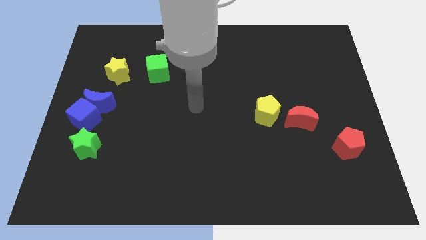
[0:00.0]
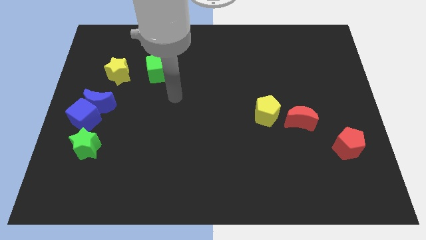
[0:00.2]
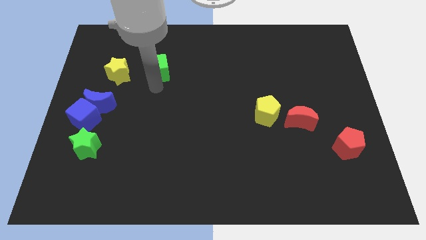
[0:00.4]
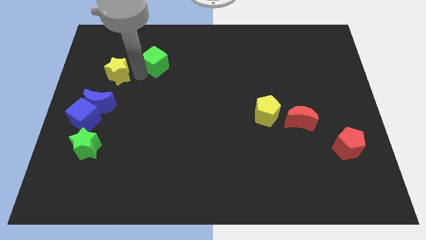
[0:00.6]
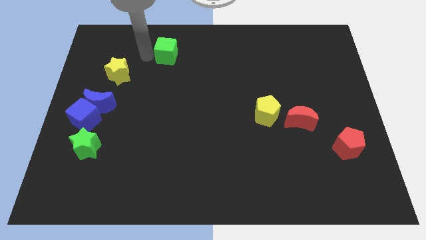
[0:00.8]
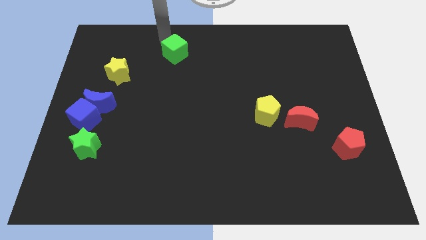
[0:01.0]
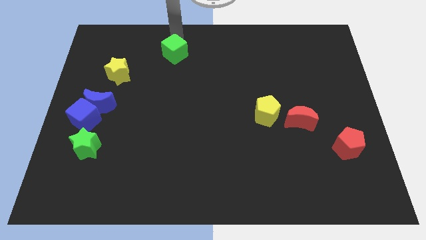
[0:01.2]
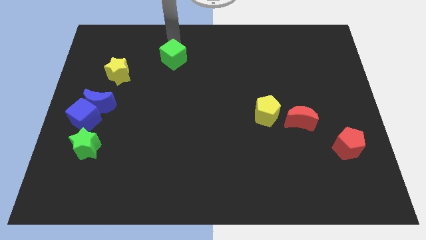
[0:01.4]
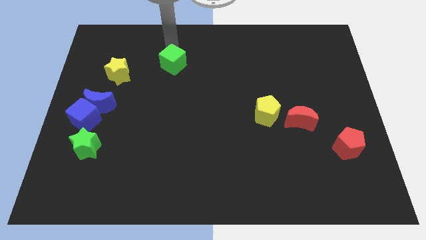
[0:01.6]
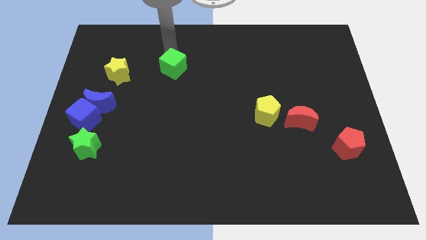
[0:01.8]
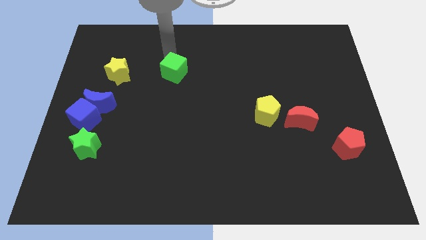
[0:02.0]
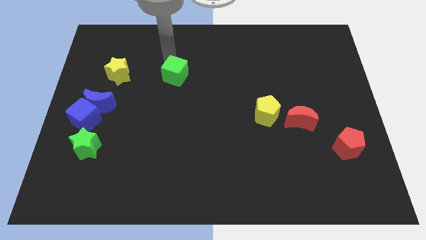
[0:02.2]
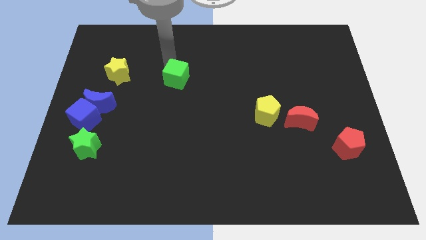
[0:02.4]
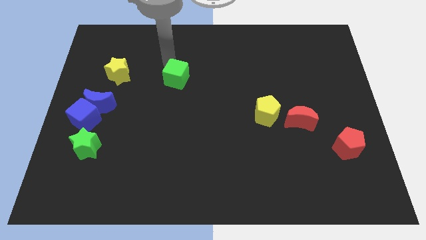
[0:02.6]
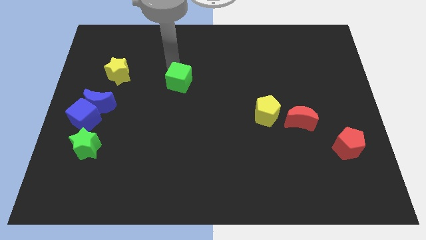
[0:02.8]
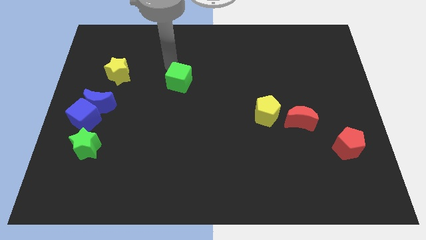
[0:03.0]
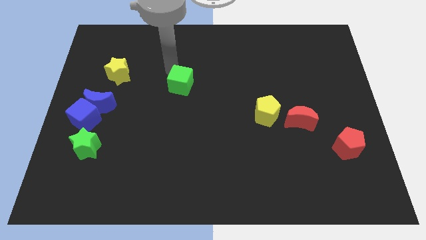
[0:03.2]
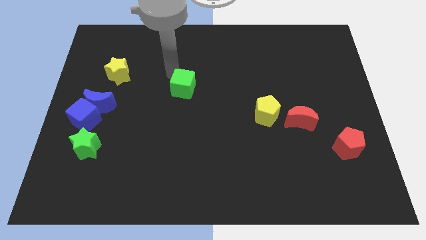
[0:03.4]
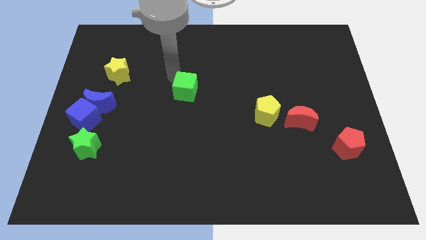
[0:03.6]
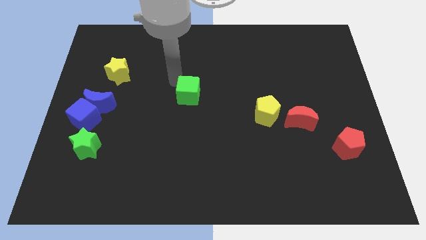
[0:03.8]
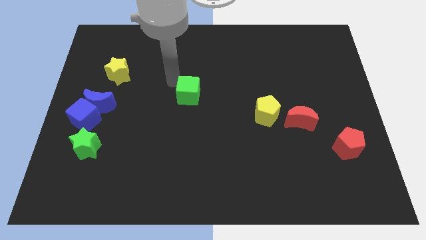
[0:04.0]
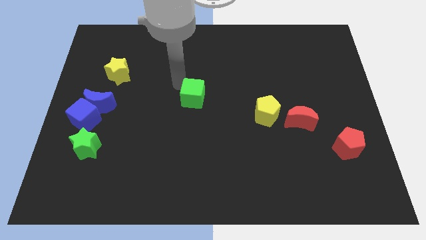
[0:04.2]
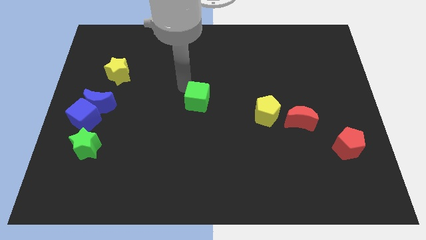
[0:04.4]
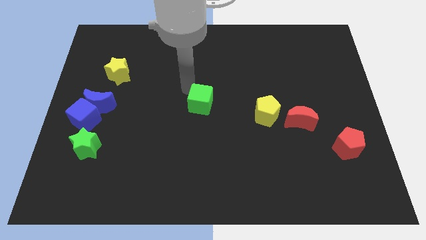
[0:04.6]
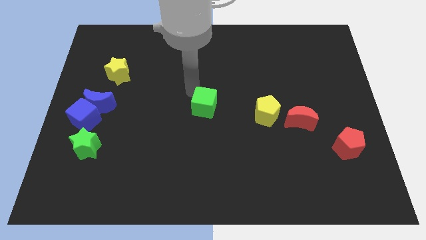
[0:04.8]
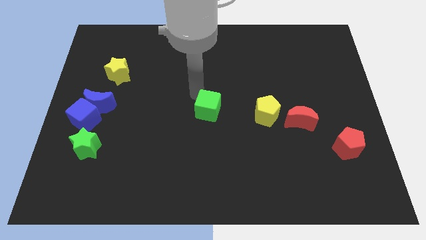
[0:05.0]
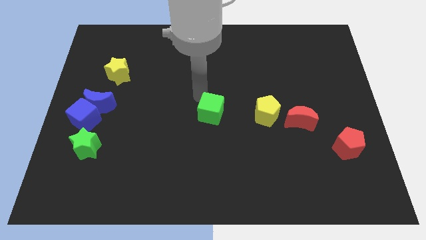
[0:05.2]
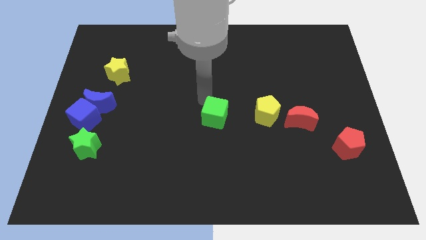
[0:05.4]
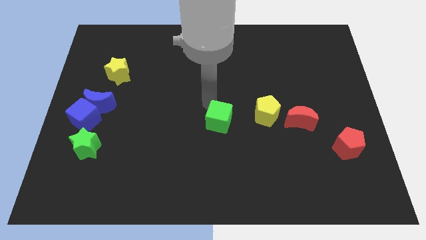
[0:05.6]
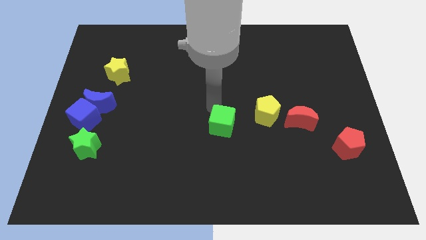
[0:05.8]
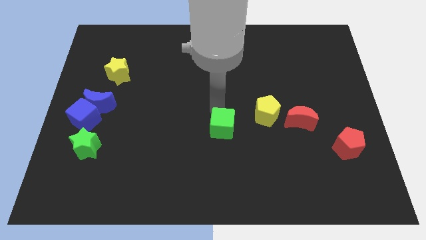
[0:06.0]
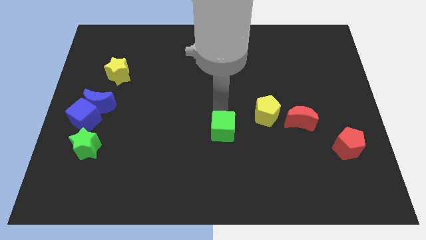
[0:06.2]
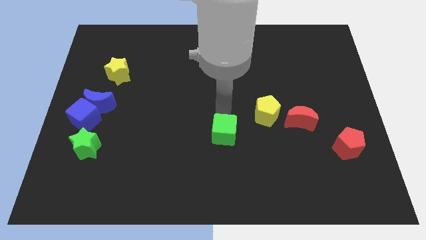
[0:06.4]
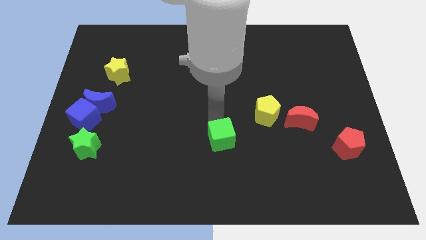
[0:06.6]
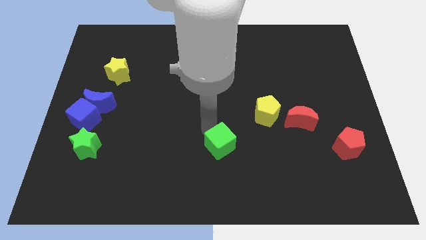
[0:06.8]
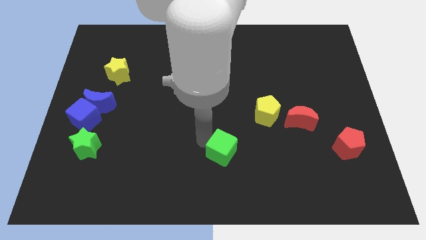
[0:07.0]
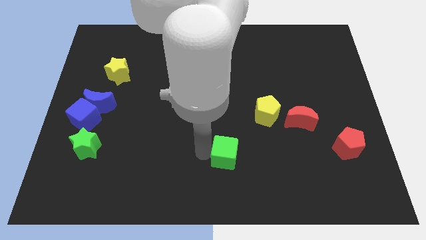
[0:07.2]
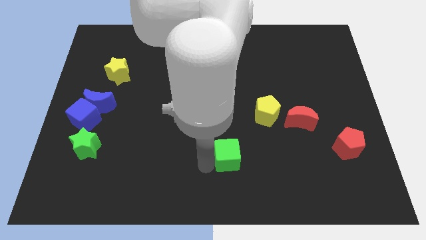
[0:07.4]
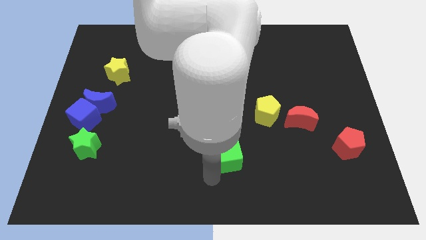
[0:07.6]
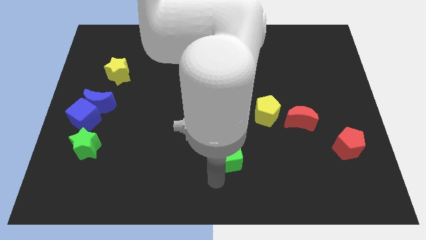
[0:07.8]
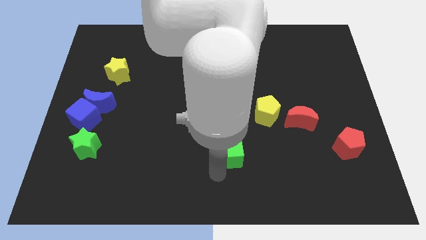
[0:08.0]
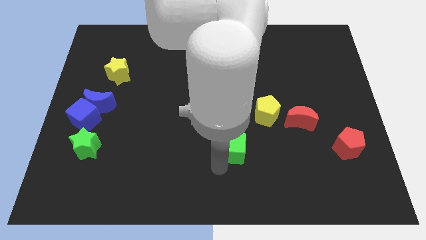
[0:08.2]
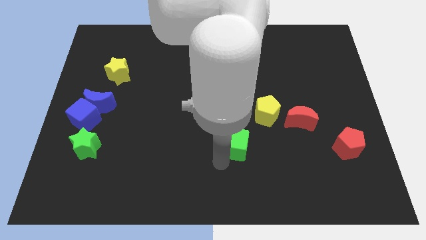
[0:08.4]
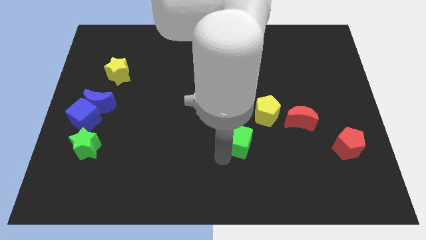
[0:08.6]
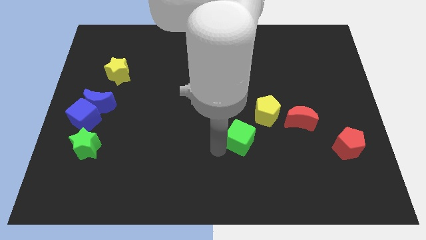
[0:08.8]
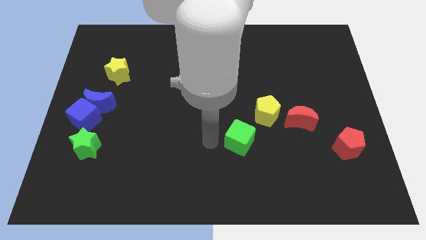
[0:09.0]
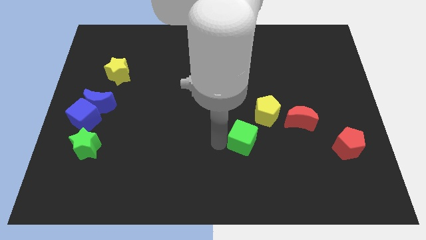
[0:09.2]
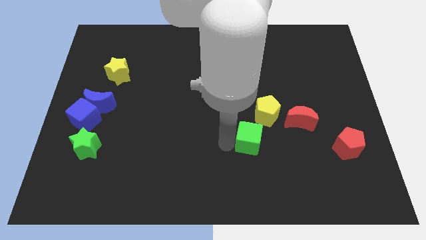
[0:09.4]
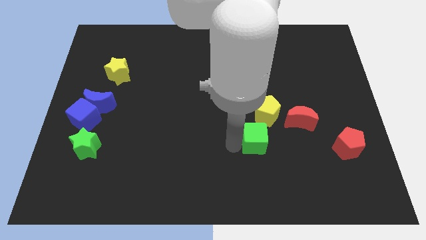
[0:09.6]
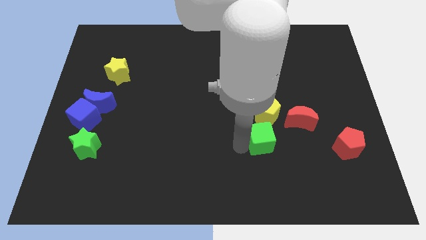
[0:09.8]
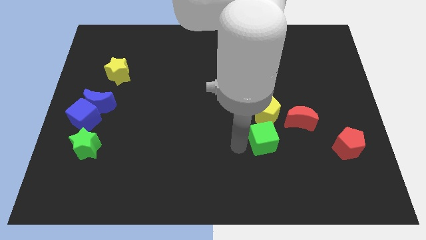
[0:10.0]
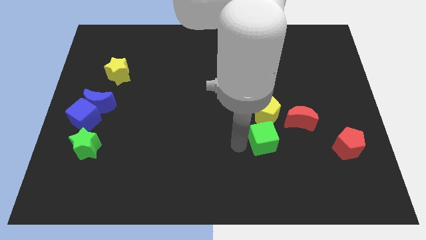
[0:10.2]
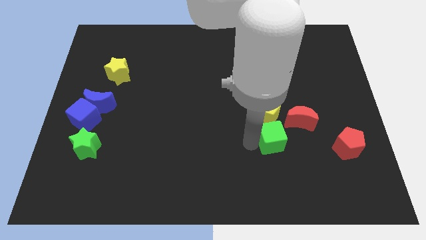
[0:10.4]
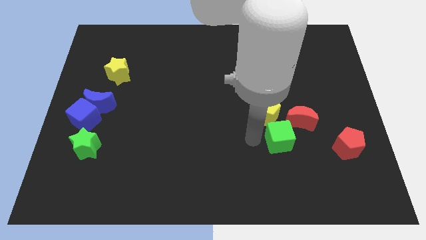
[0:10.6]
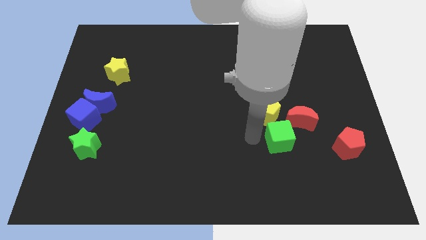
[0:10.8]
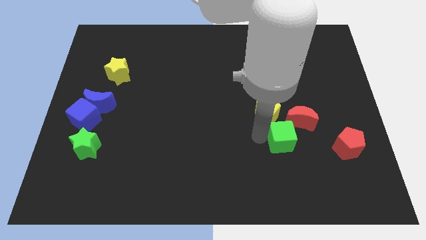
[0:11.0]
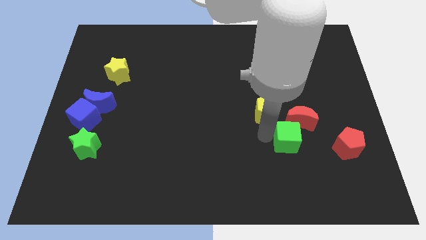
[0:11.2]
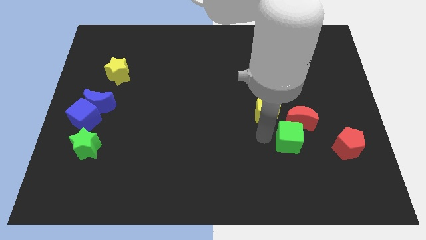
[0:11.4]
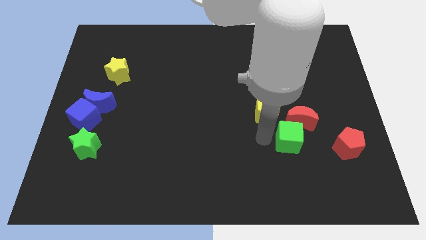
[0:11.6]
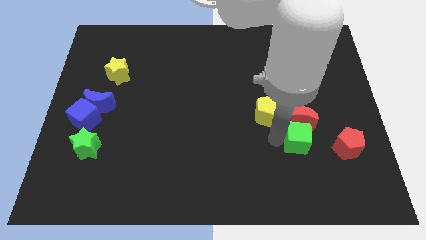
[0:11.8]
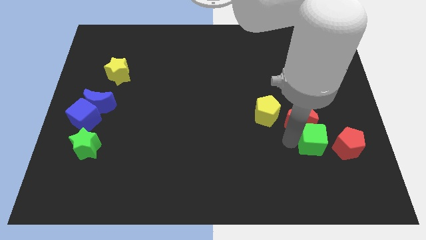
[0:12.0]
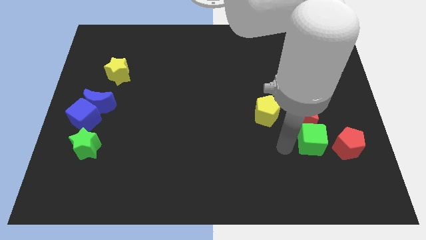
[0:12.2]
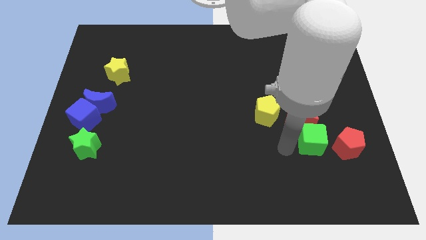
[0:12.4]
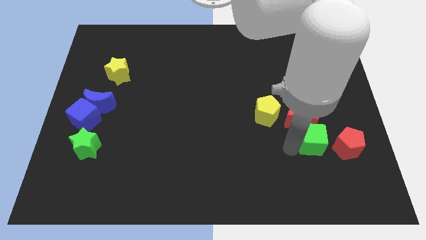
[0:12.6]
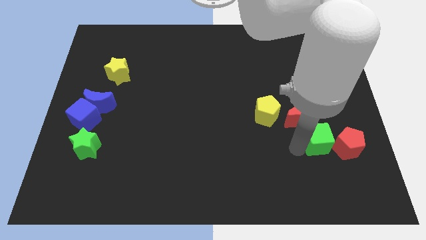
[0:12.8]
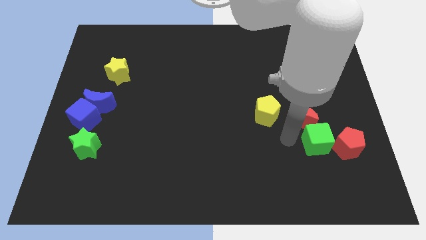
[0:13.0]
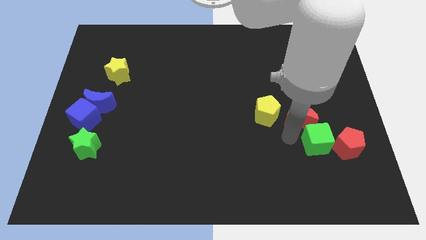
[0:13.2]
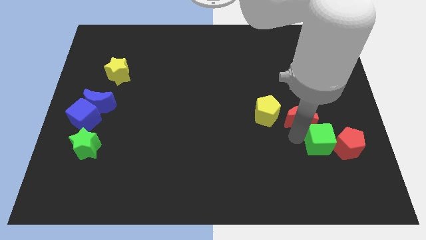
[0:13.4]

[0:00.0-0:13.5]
push the green cube next to the red pentagon
